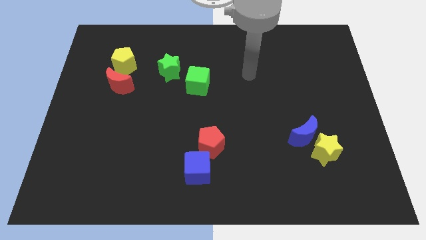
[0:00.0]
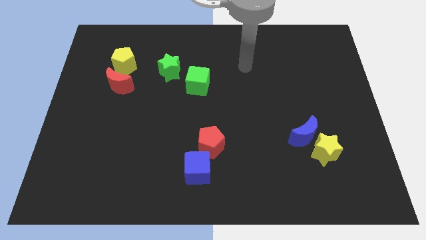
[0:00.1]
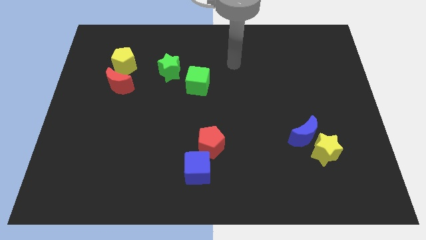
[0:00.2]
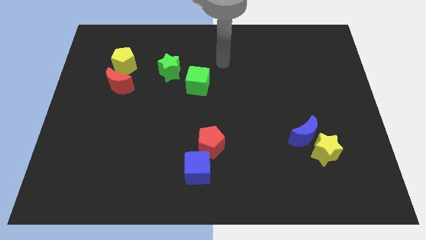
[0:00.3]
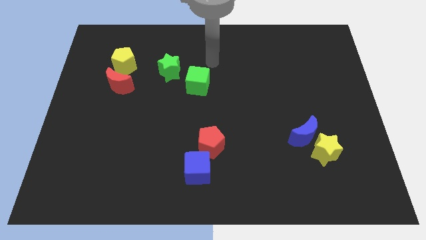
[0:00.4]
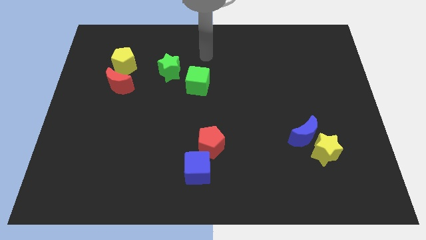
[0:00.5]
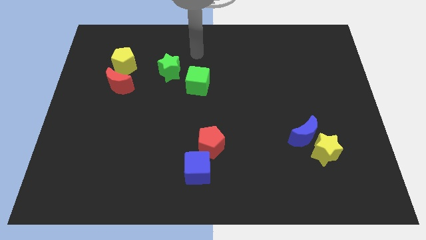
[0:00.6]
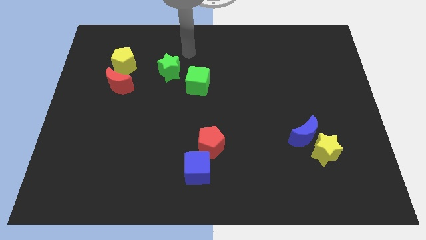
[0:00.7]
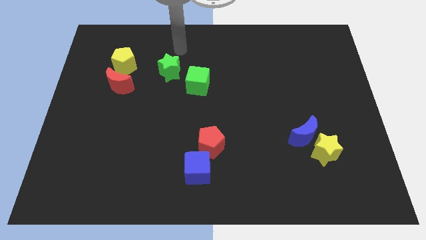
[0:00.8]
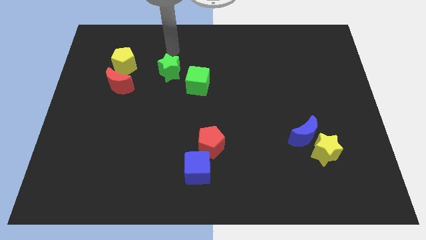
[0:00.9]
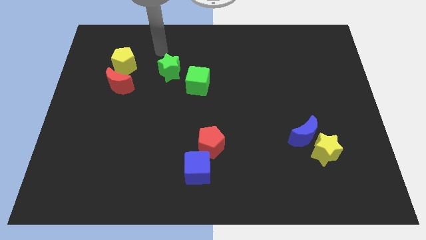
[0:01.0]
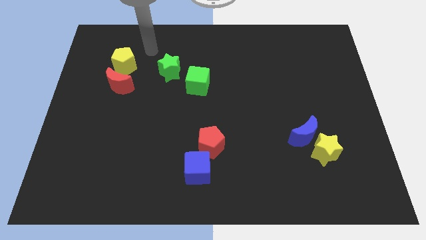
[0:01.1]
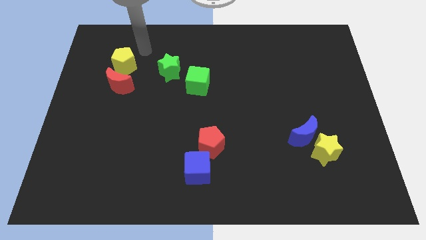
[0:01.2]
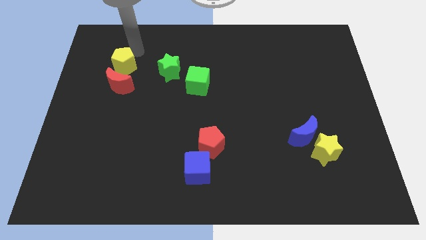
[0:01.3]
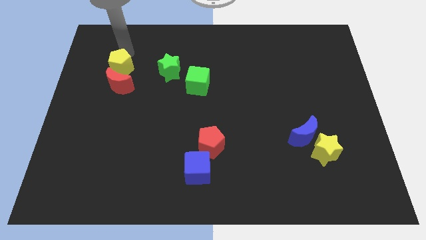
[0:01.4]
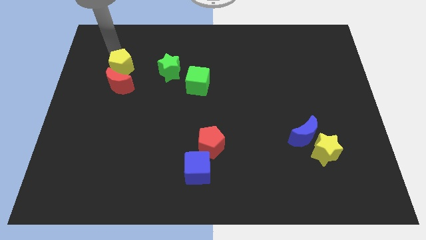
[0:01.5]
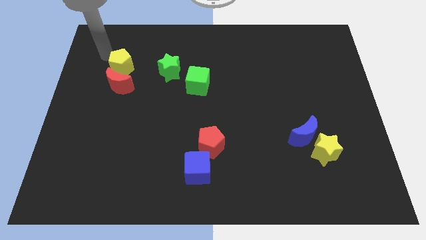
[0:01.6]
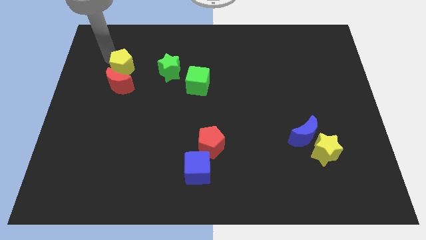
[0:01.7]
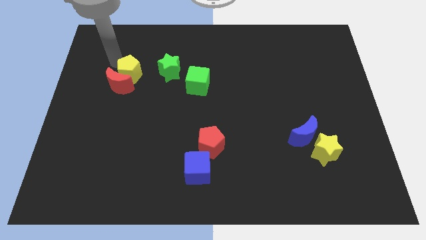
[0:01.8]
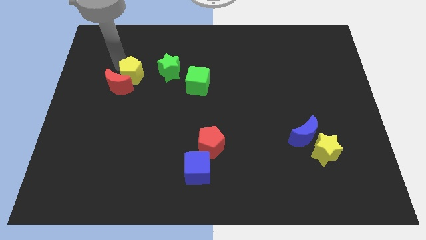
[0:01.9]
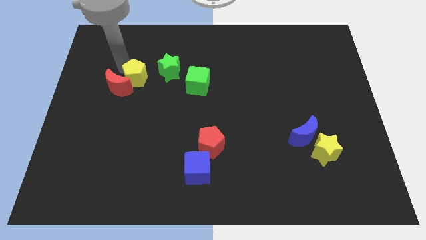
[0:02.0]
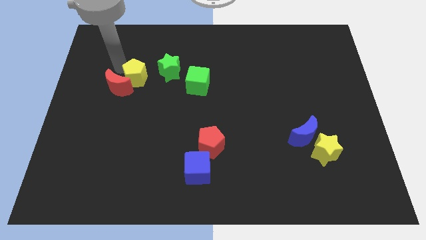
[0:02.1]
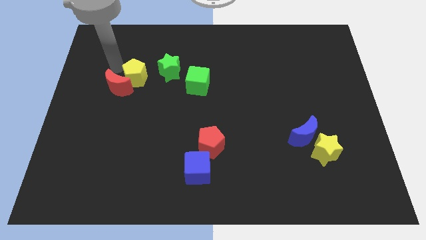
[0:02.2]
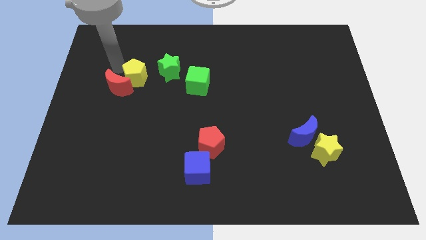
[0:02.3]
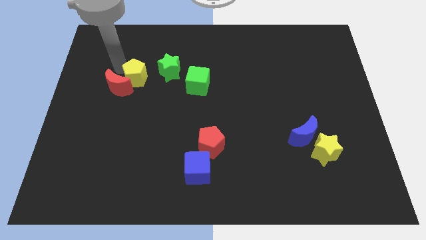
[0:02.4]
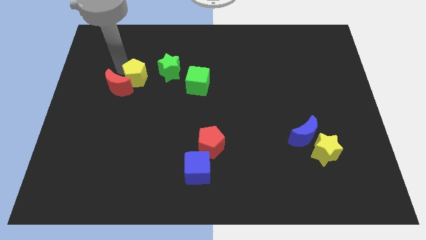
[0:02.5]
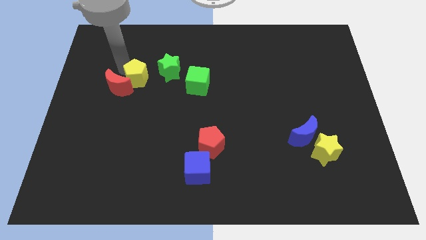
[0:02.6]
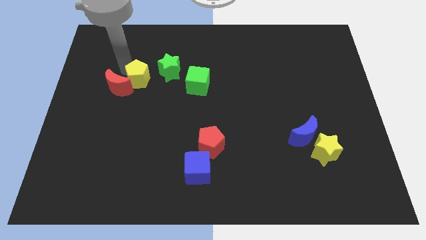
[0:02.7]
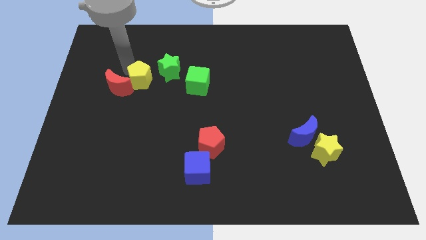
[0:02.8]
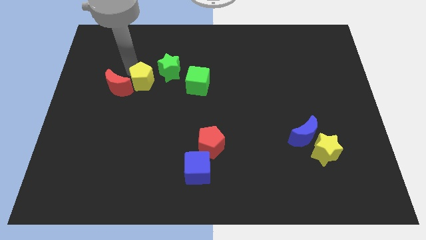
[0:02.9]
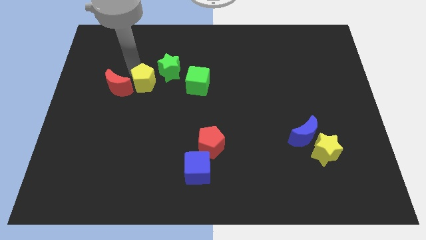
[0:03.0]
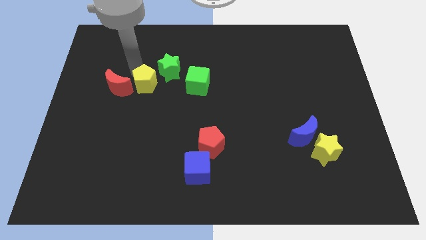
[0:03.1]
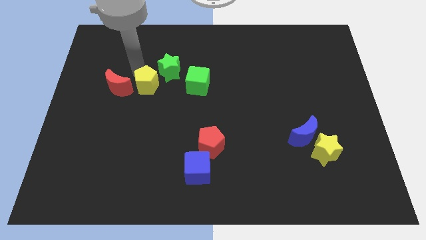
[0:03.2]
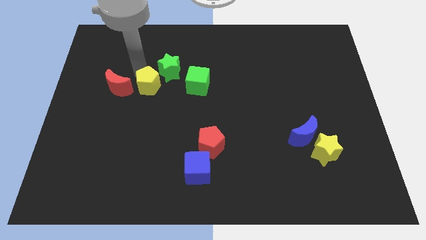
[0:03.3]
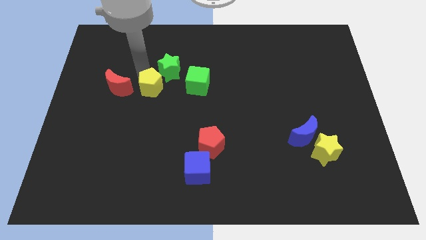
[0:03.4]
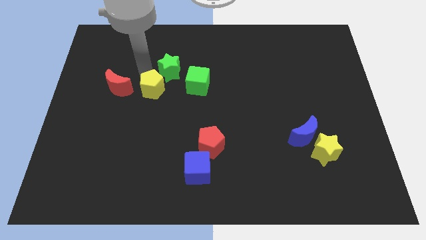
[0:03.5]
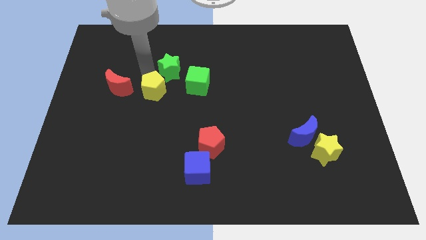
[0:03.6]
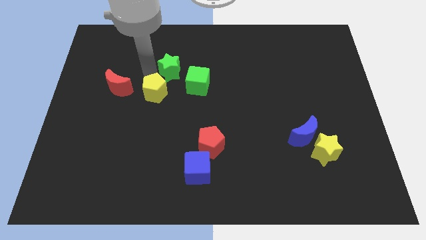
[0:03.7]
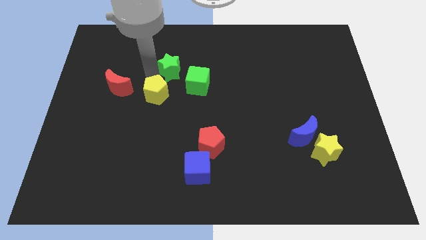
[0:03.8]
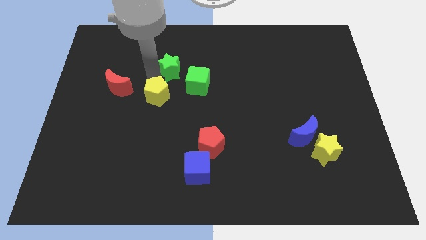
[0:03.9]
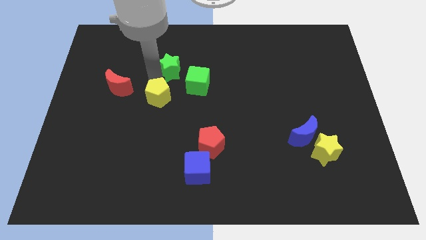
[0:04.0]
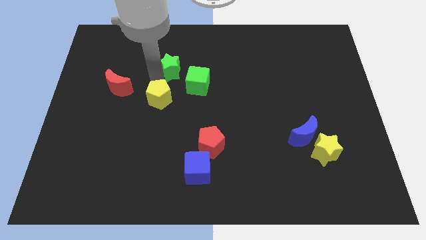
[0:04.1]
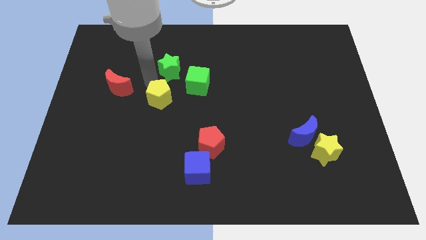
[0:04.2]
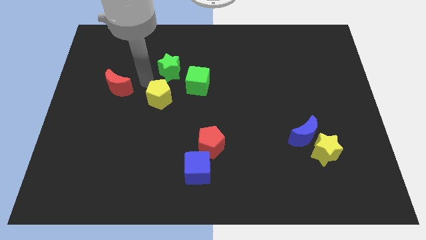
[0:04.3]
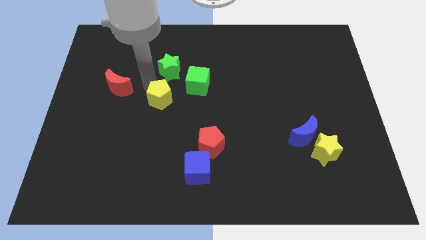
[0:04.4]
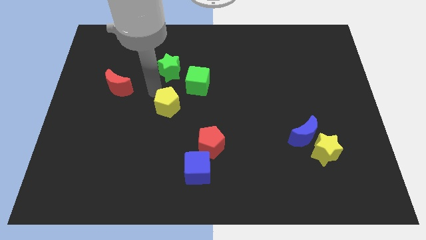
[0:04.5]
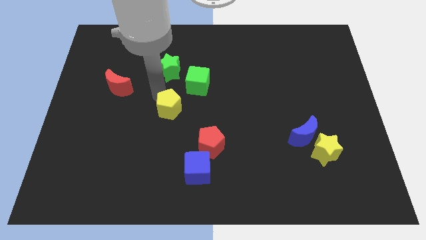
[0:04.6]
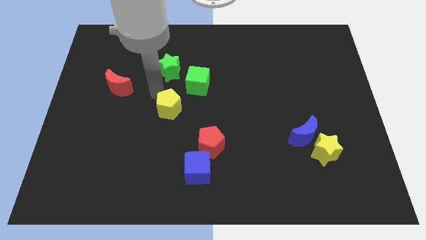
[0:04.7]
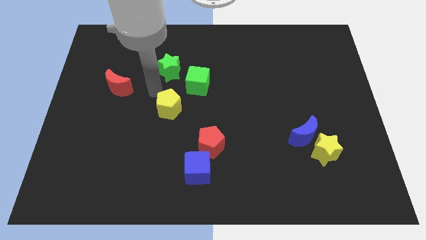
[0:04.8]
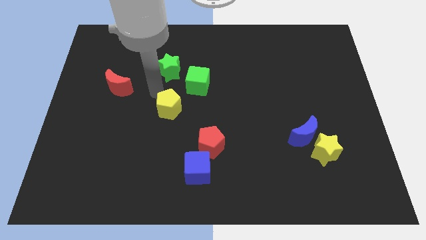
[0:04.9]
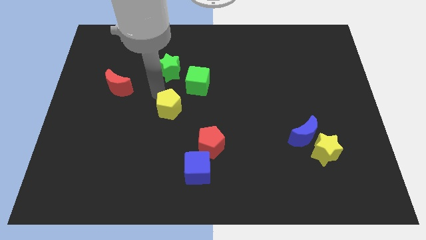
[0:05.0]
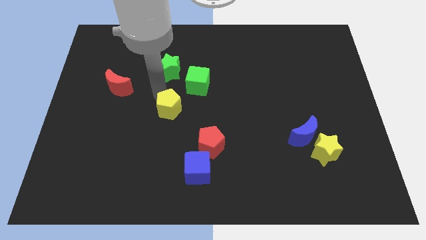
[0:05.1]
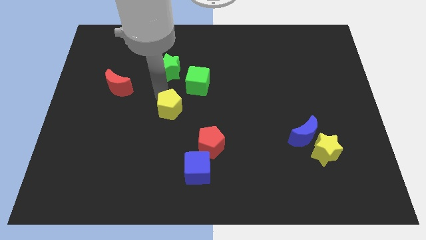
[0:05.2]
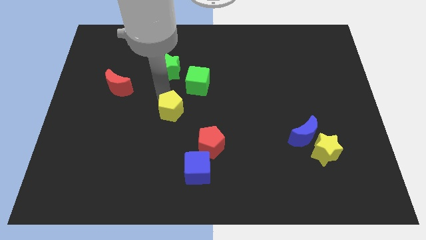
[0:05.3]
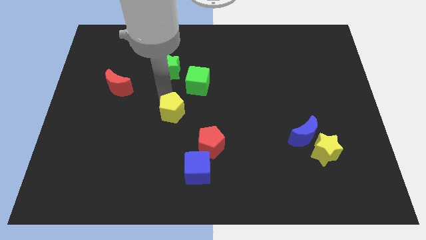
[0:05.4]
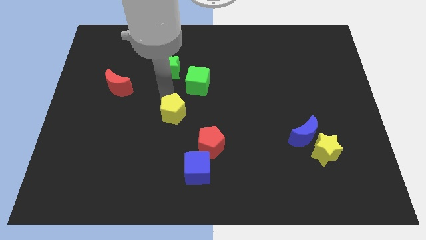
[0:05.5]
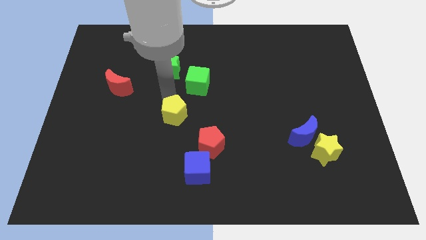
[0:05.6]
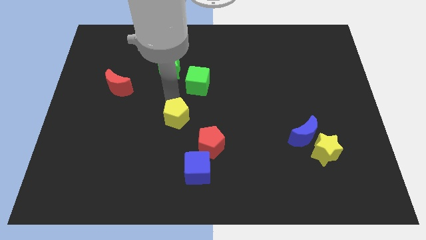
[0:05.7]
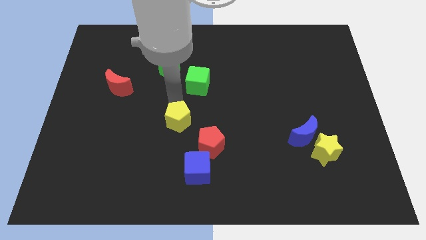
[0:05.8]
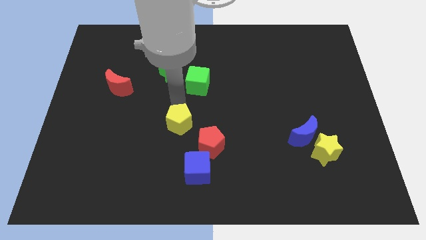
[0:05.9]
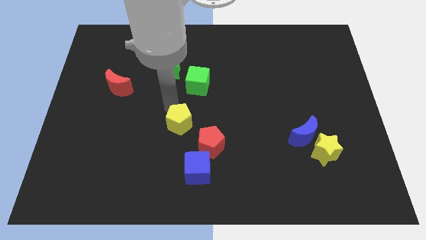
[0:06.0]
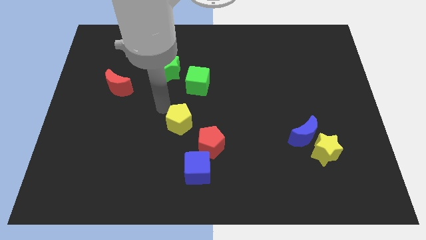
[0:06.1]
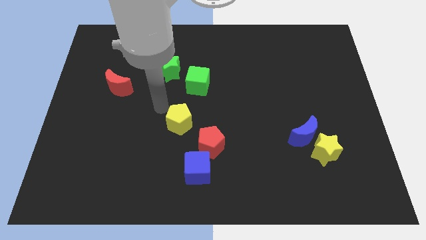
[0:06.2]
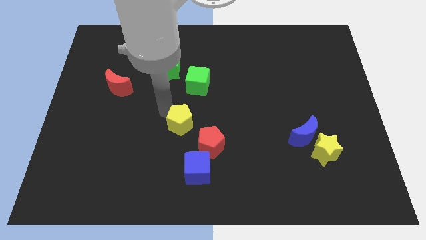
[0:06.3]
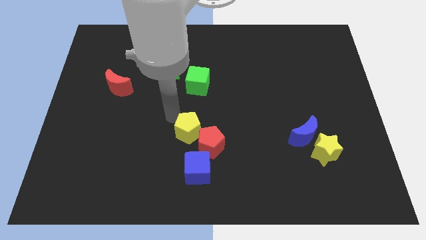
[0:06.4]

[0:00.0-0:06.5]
slide the yellow pentagon to the red pentagon
